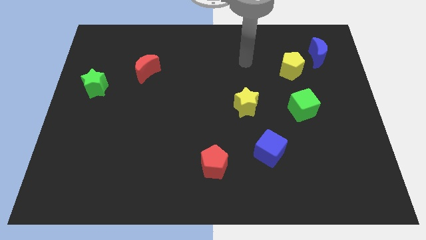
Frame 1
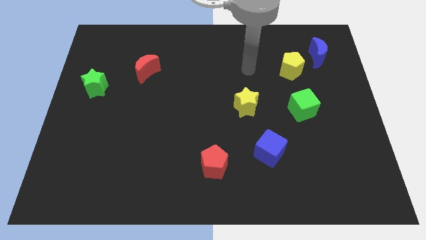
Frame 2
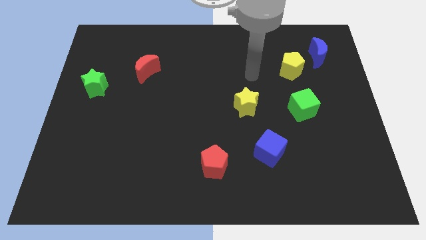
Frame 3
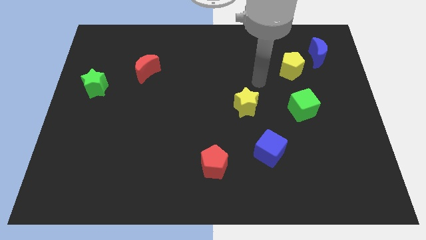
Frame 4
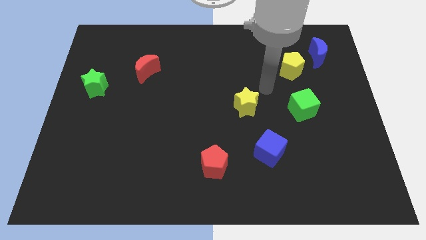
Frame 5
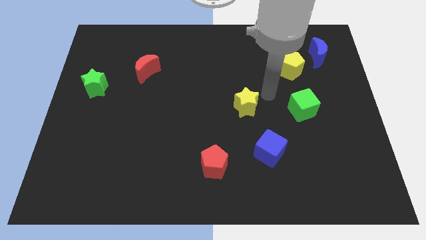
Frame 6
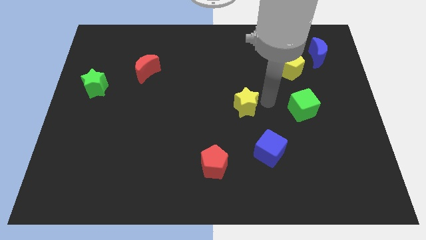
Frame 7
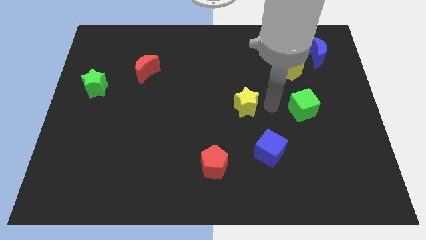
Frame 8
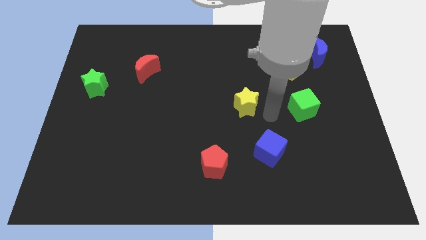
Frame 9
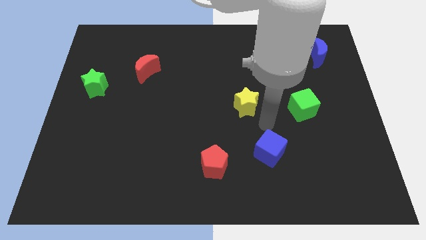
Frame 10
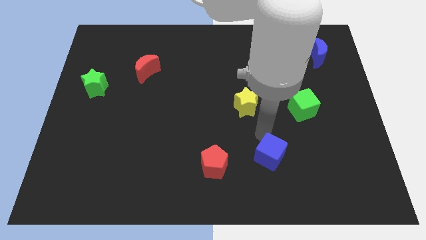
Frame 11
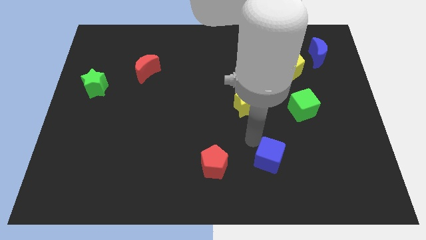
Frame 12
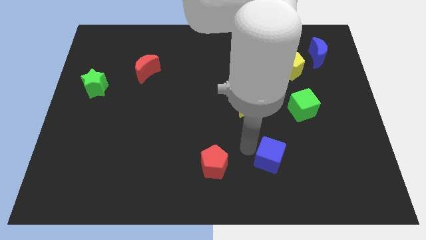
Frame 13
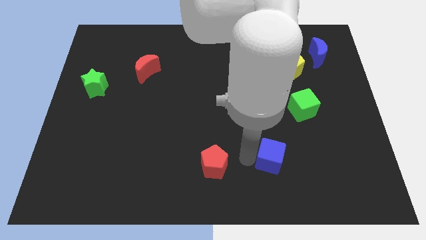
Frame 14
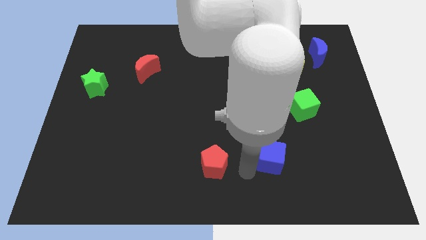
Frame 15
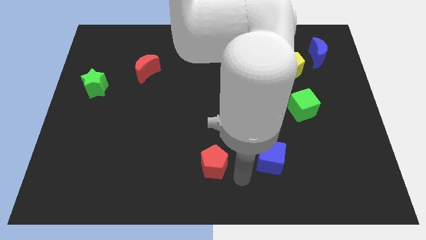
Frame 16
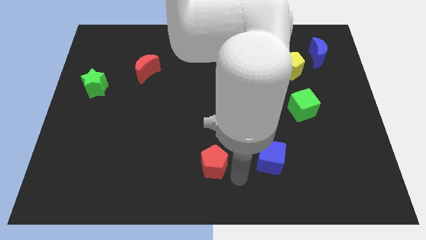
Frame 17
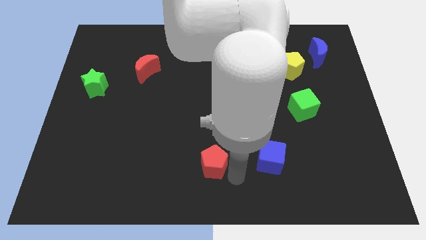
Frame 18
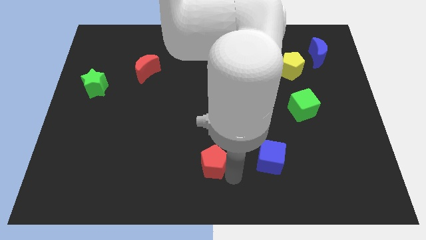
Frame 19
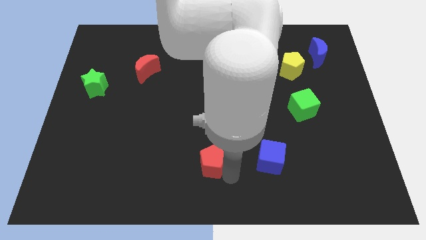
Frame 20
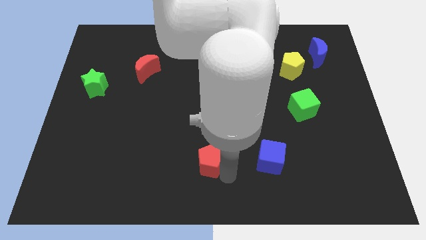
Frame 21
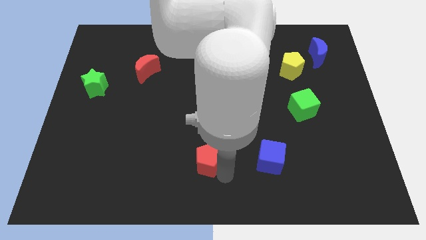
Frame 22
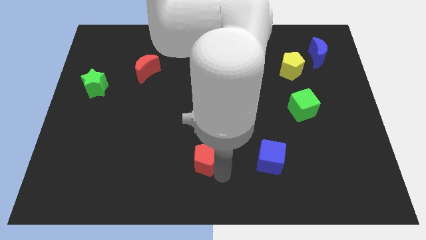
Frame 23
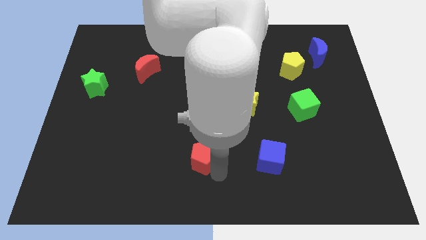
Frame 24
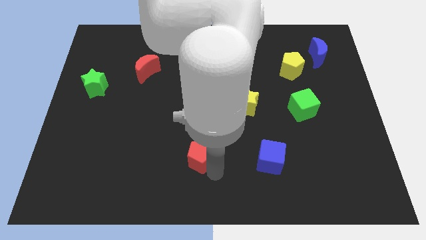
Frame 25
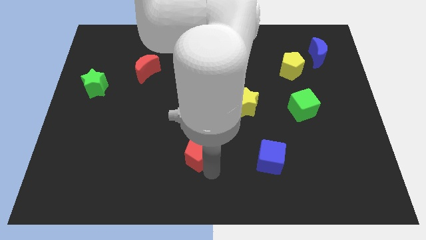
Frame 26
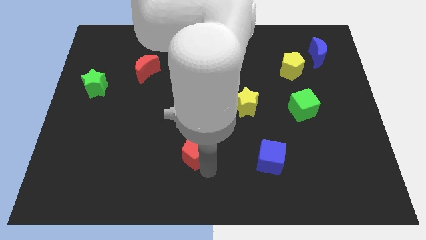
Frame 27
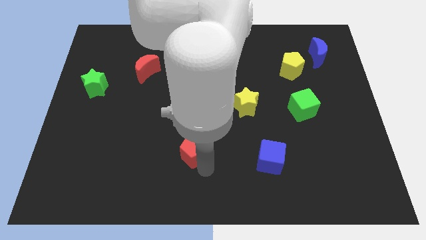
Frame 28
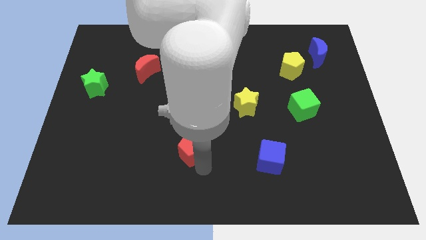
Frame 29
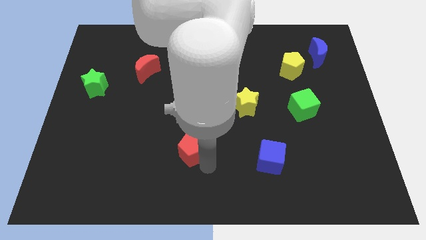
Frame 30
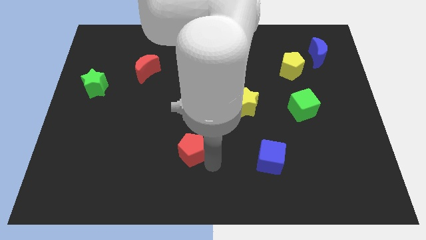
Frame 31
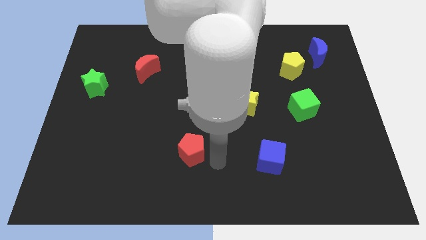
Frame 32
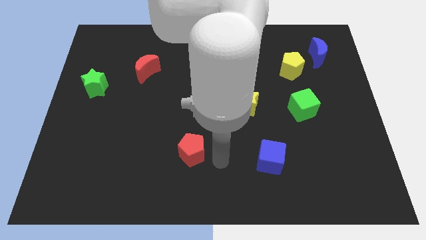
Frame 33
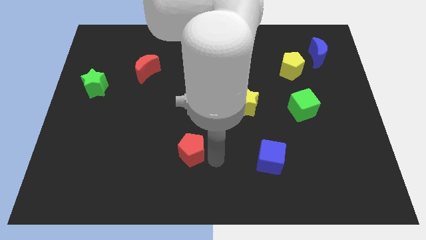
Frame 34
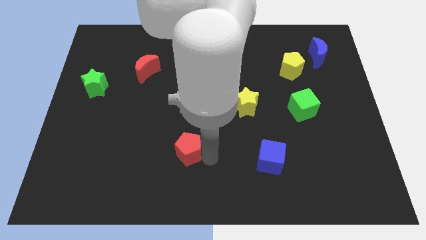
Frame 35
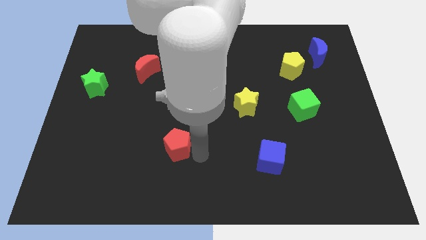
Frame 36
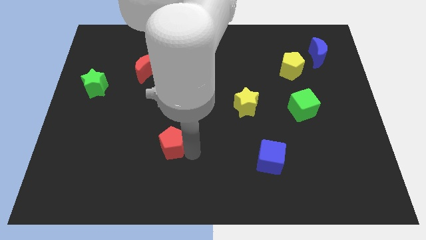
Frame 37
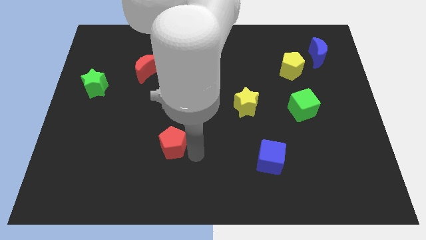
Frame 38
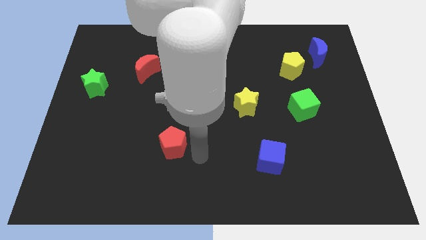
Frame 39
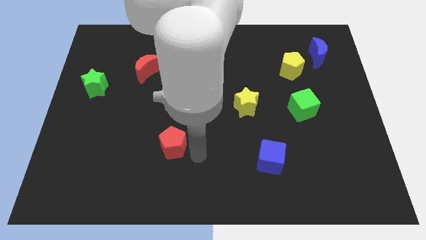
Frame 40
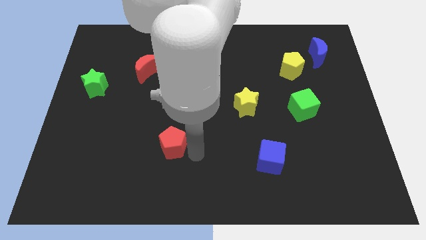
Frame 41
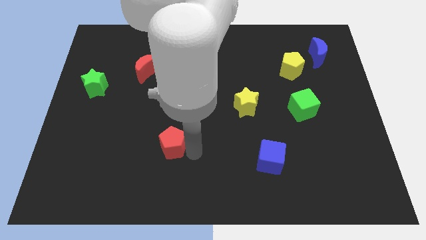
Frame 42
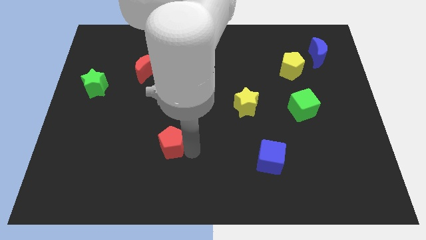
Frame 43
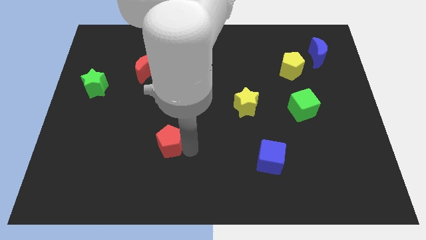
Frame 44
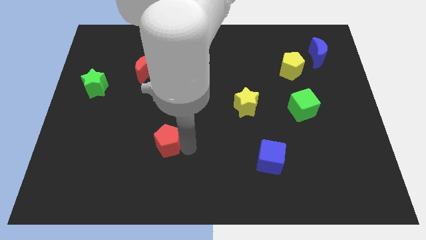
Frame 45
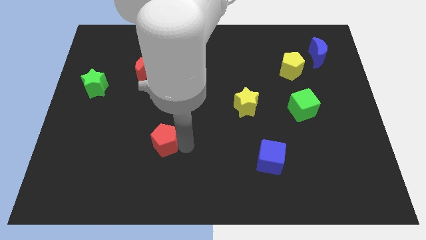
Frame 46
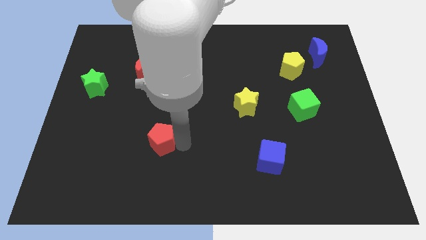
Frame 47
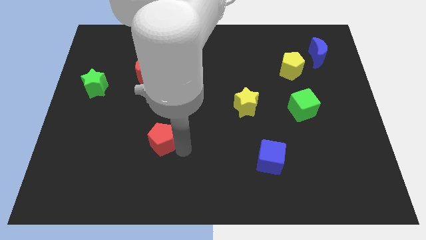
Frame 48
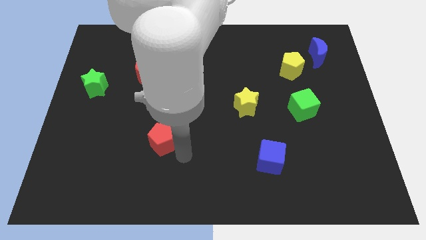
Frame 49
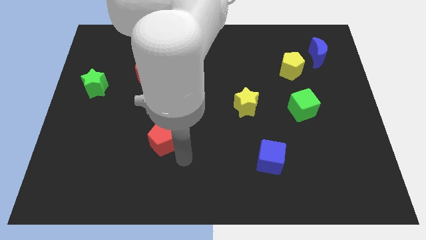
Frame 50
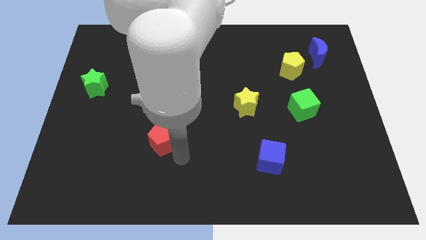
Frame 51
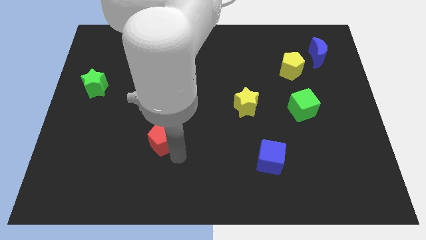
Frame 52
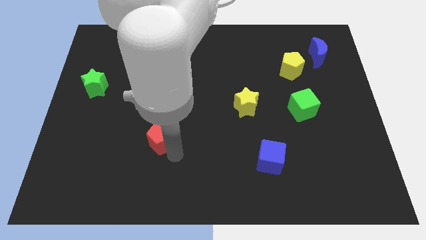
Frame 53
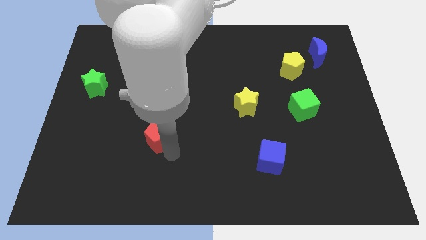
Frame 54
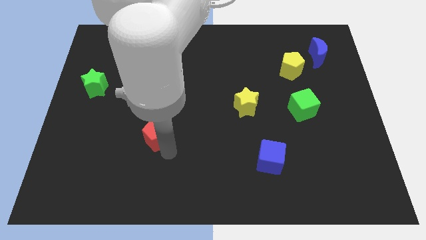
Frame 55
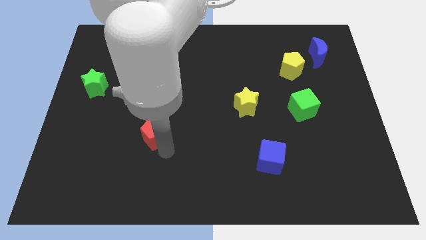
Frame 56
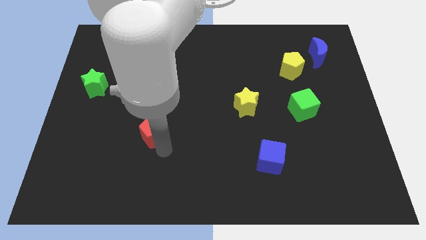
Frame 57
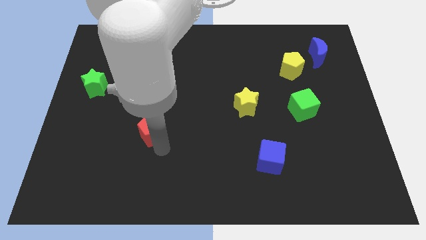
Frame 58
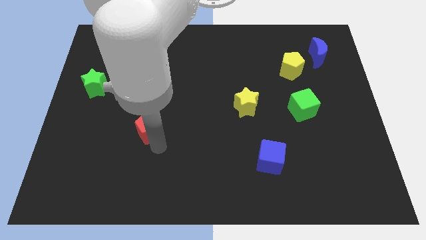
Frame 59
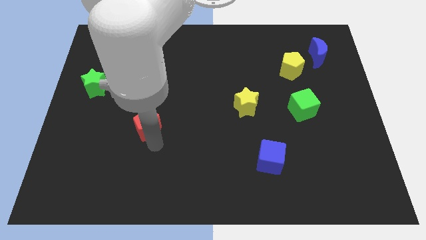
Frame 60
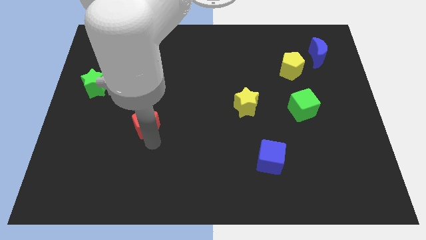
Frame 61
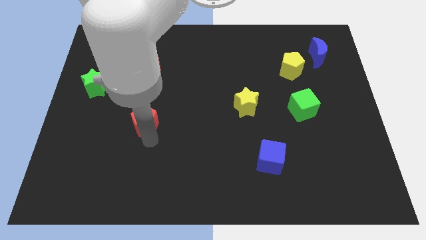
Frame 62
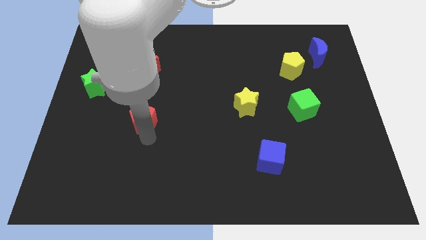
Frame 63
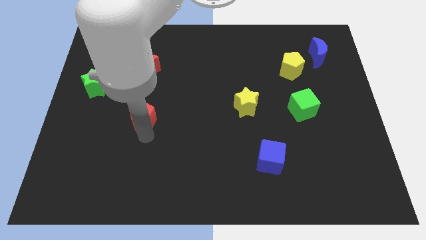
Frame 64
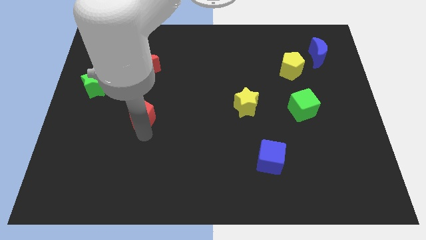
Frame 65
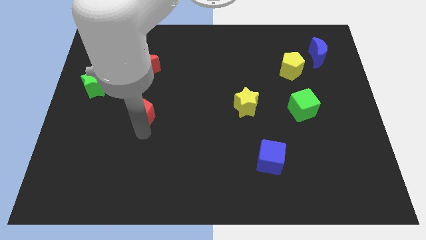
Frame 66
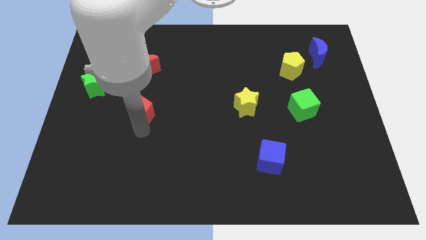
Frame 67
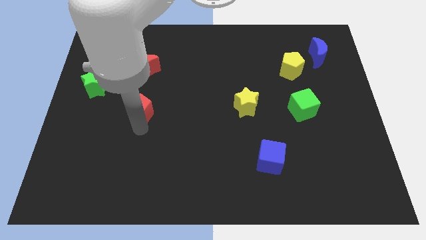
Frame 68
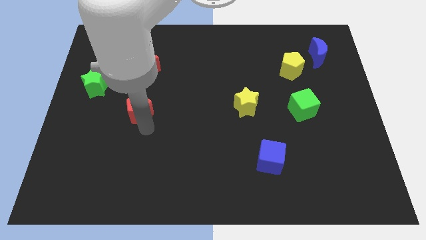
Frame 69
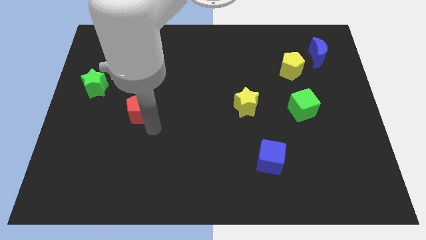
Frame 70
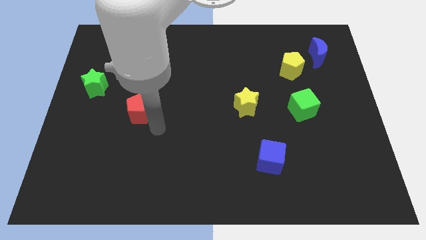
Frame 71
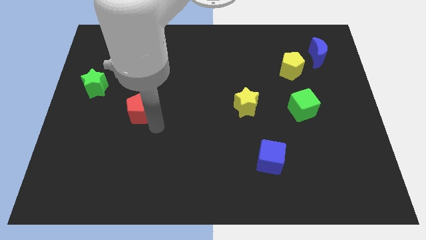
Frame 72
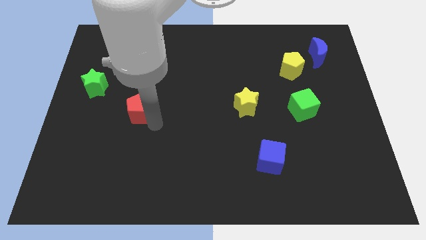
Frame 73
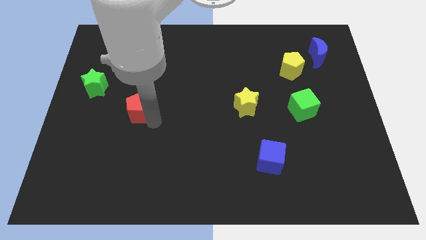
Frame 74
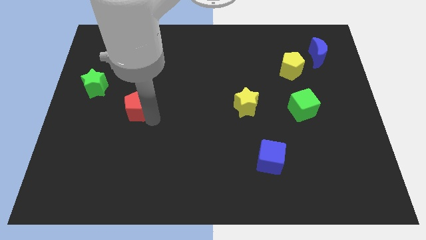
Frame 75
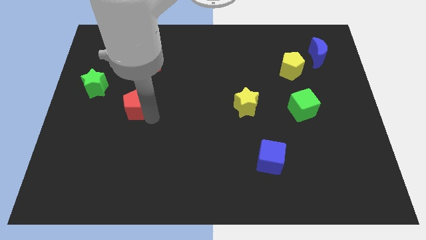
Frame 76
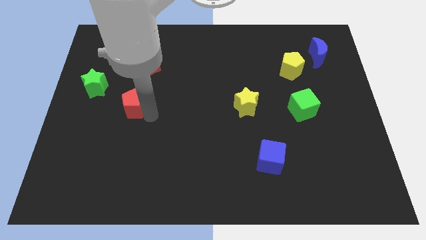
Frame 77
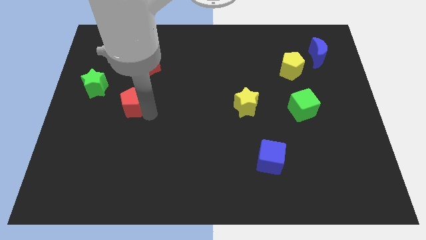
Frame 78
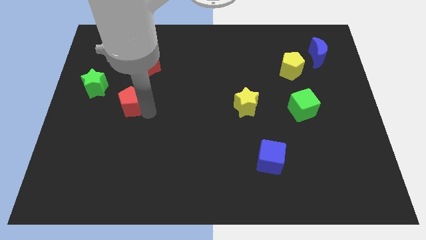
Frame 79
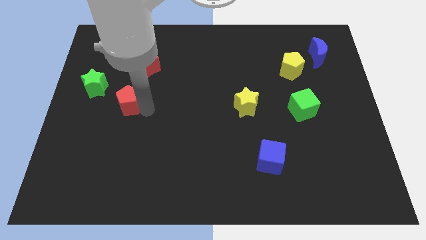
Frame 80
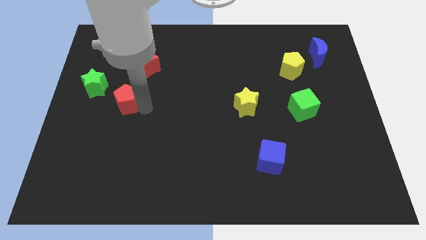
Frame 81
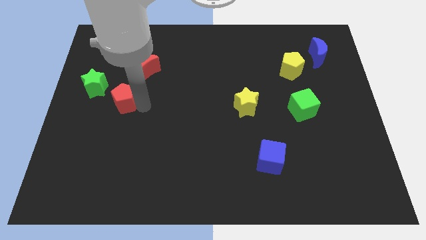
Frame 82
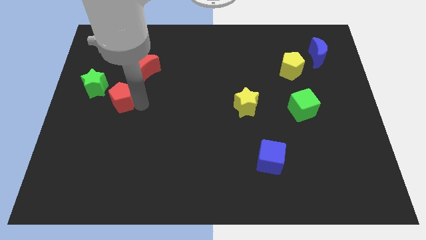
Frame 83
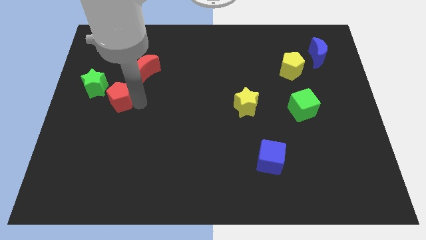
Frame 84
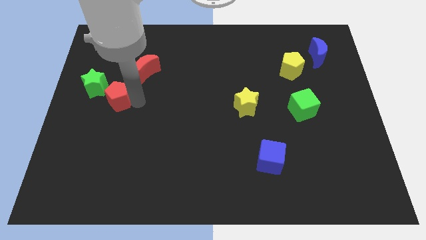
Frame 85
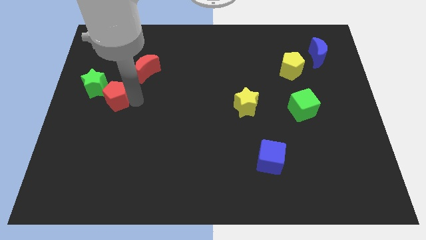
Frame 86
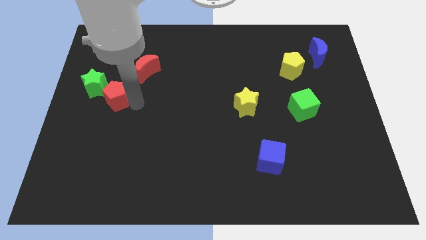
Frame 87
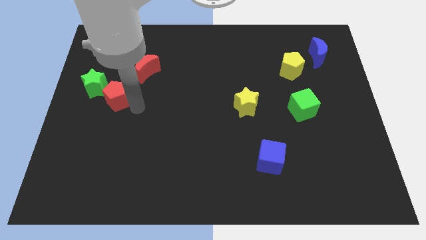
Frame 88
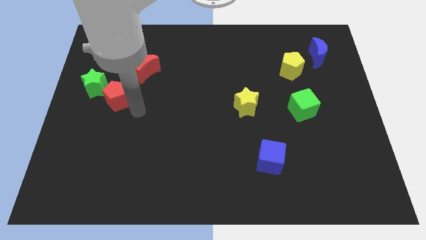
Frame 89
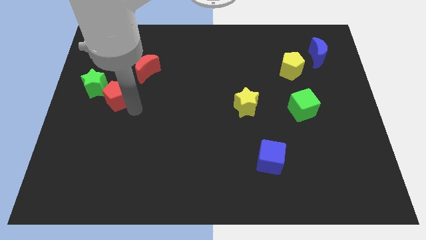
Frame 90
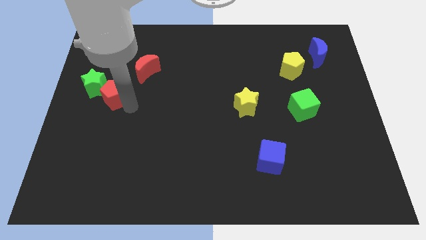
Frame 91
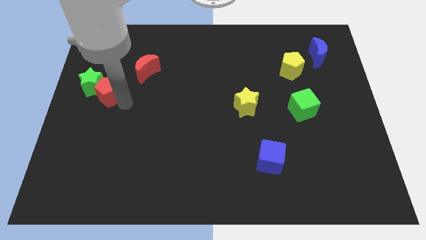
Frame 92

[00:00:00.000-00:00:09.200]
slide the red pentagon towards the green star
